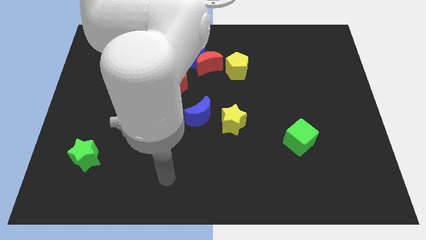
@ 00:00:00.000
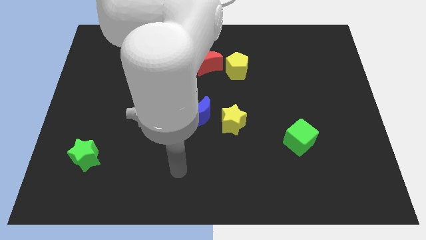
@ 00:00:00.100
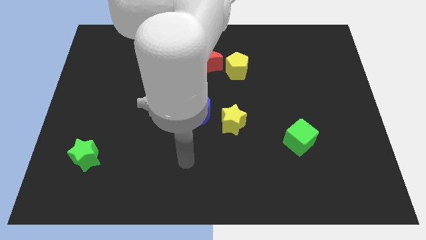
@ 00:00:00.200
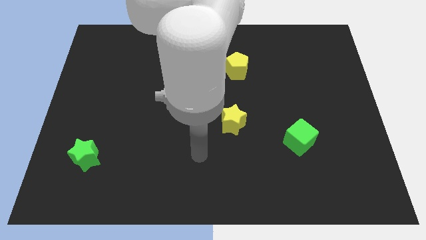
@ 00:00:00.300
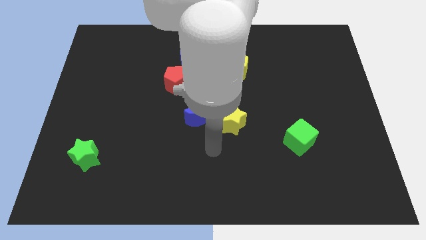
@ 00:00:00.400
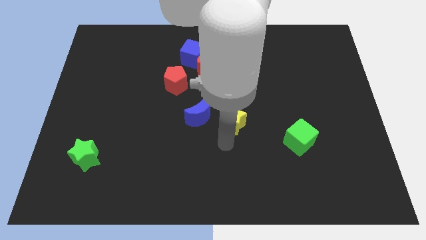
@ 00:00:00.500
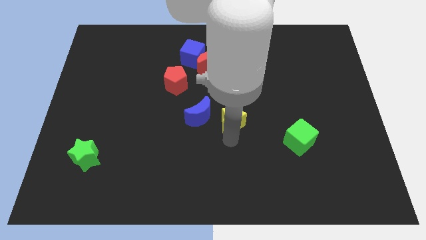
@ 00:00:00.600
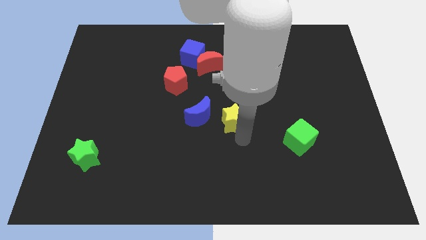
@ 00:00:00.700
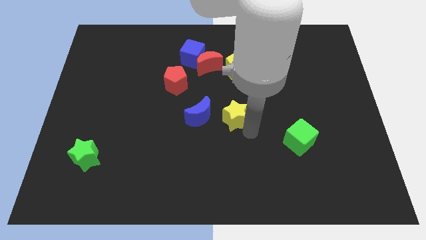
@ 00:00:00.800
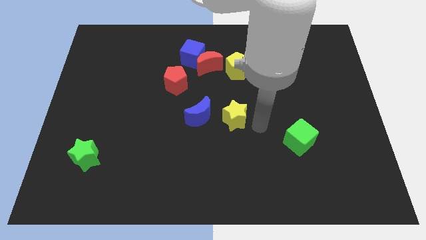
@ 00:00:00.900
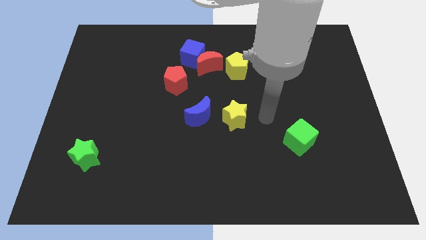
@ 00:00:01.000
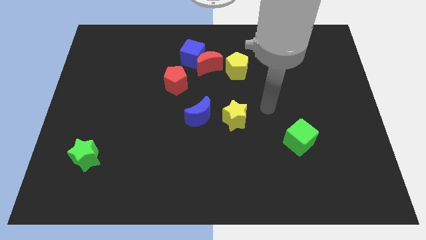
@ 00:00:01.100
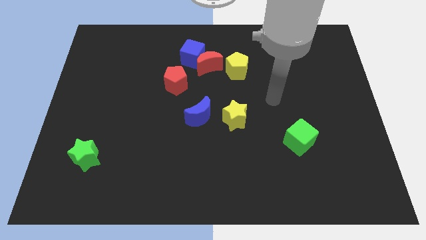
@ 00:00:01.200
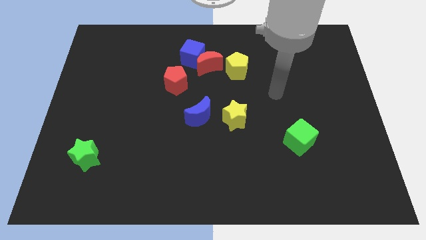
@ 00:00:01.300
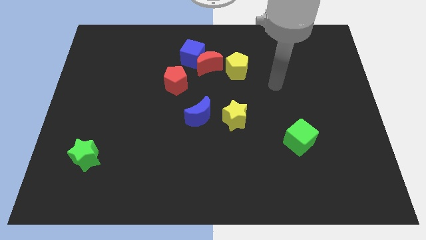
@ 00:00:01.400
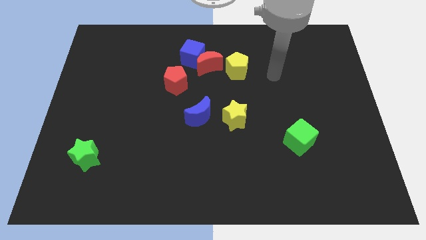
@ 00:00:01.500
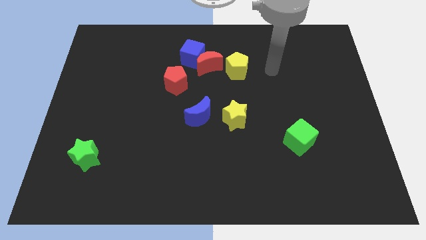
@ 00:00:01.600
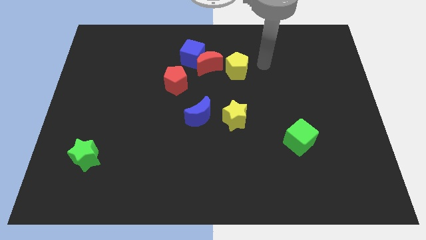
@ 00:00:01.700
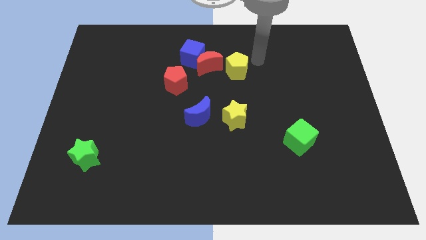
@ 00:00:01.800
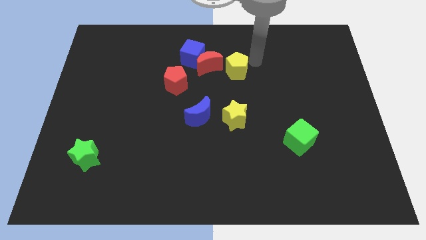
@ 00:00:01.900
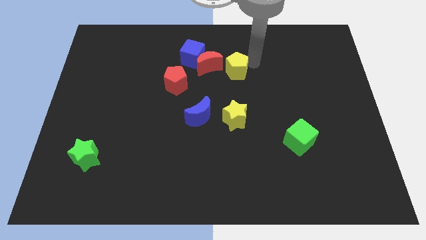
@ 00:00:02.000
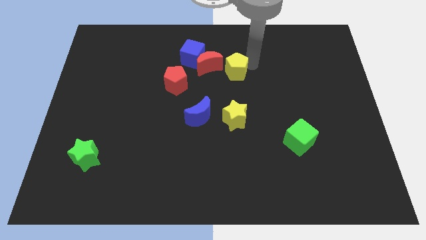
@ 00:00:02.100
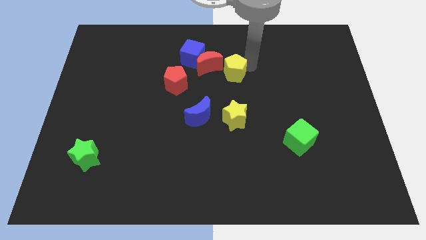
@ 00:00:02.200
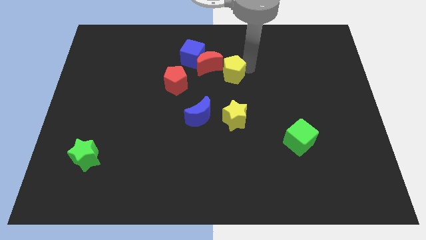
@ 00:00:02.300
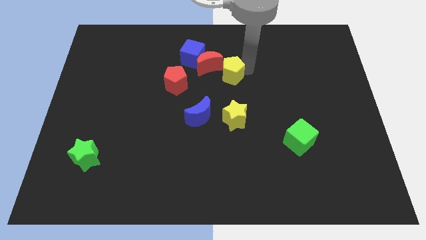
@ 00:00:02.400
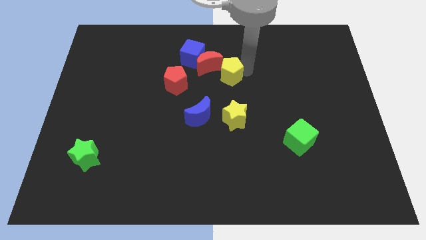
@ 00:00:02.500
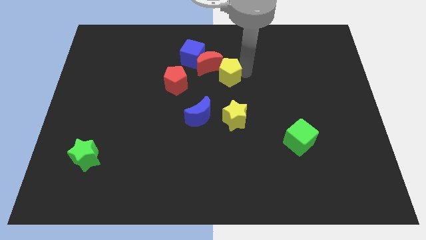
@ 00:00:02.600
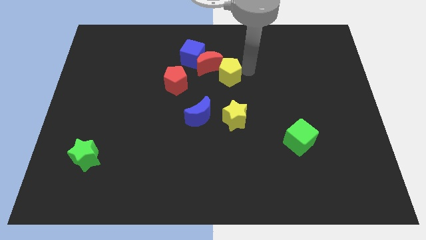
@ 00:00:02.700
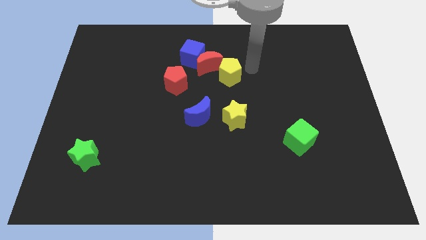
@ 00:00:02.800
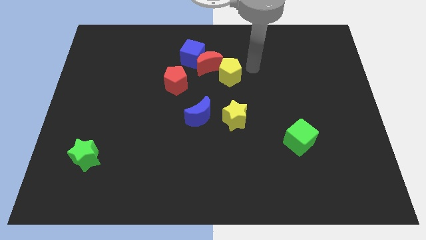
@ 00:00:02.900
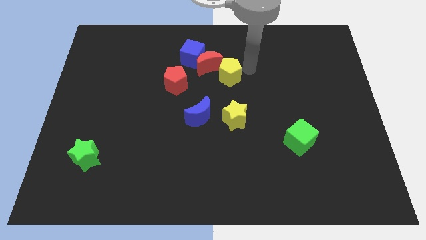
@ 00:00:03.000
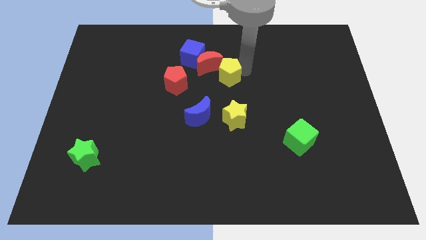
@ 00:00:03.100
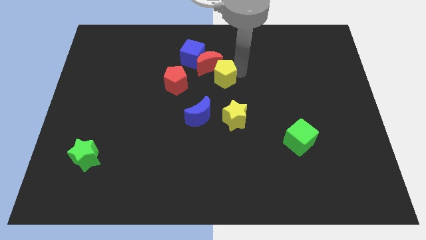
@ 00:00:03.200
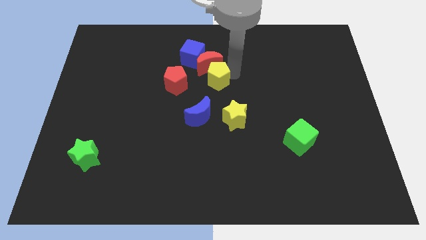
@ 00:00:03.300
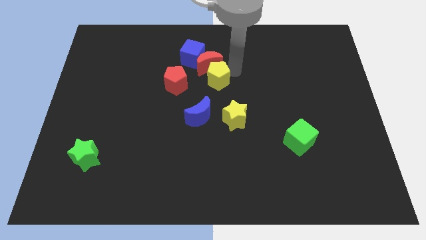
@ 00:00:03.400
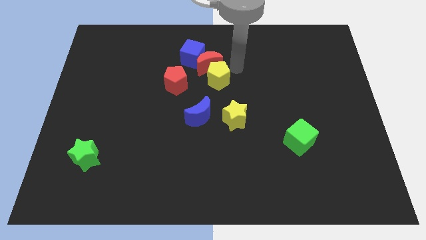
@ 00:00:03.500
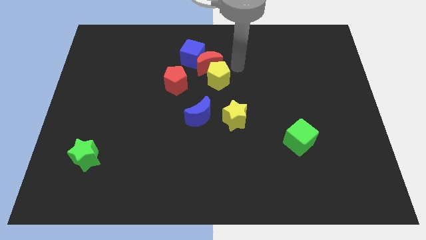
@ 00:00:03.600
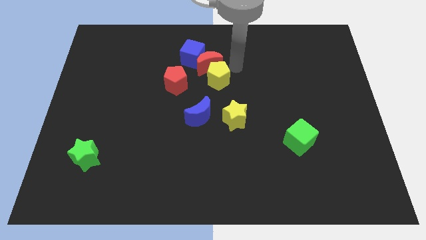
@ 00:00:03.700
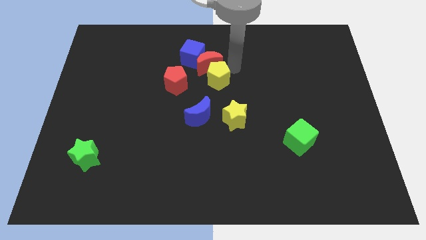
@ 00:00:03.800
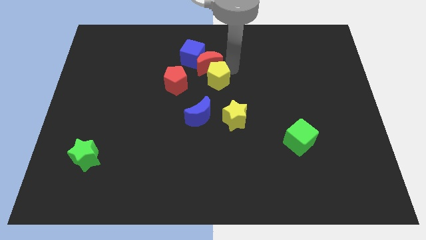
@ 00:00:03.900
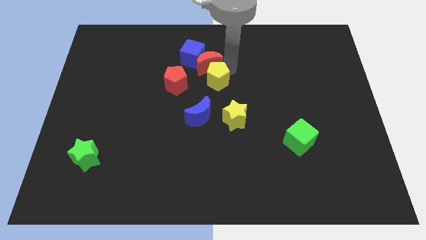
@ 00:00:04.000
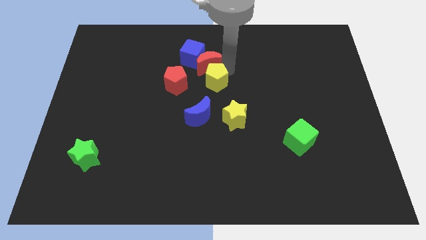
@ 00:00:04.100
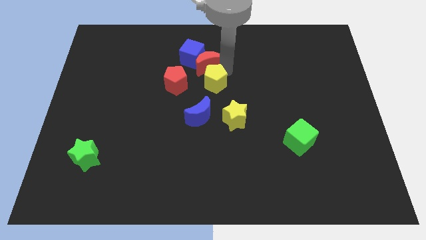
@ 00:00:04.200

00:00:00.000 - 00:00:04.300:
slightly slide the yellow pentagon downwards and then left

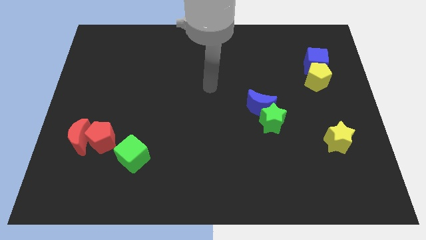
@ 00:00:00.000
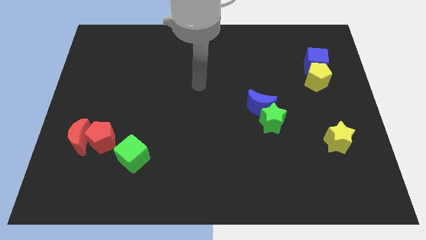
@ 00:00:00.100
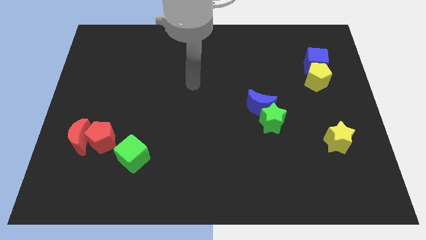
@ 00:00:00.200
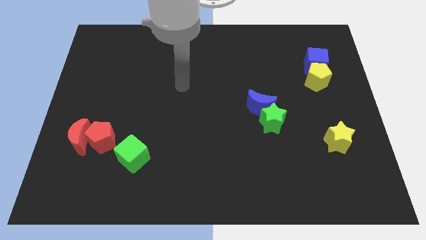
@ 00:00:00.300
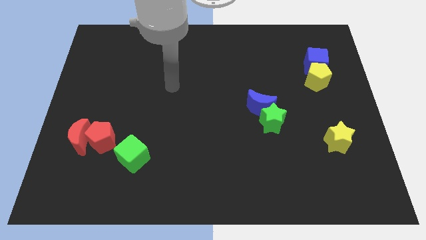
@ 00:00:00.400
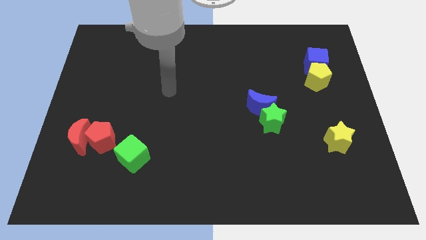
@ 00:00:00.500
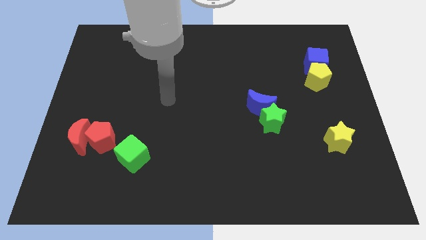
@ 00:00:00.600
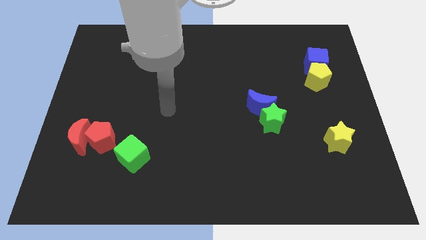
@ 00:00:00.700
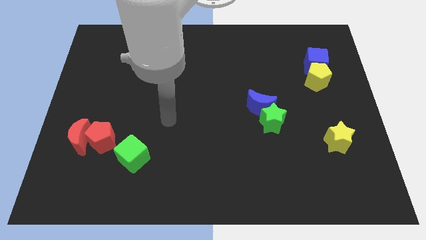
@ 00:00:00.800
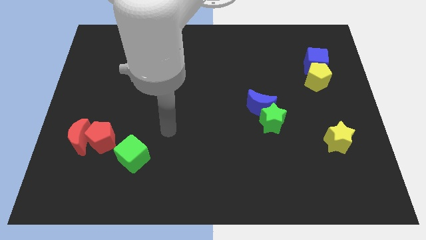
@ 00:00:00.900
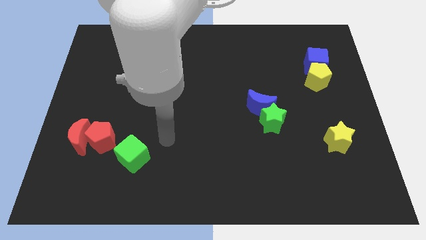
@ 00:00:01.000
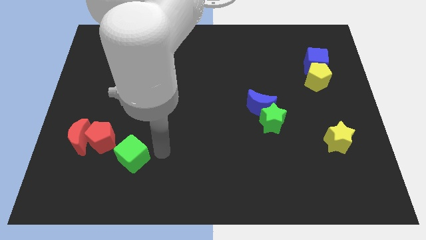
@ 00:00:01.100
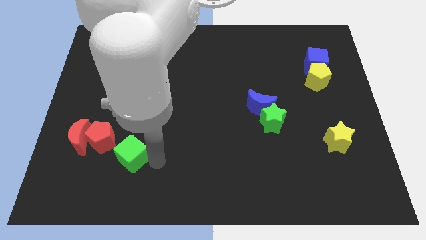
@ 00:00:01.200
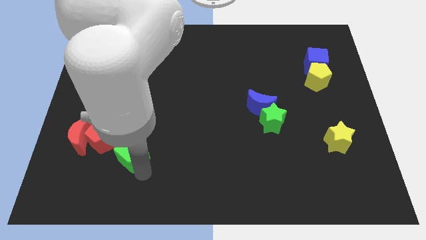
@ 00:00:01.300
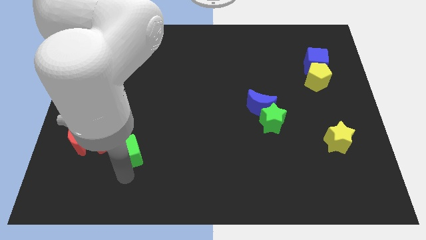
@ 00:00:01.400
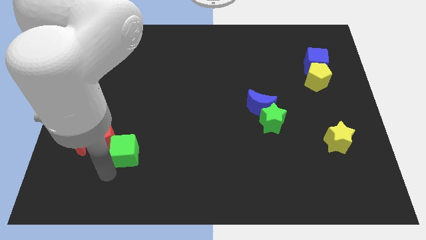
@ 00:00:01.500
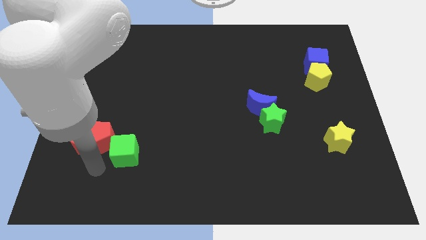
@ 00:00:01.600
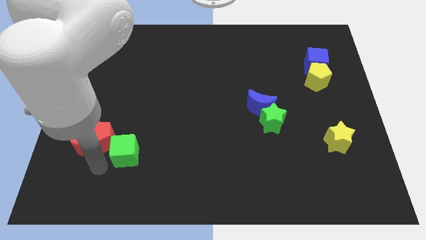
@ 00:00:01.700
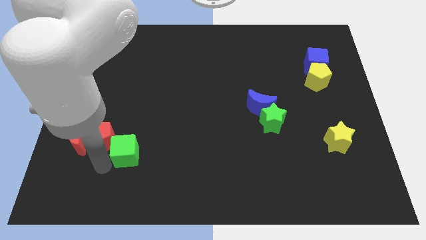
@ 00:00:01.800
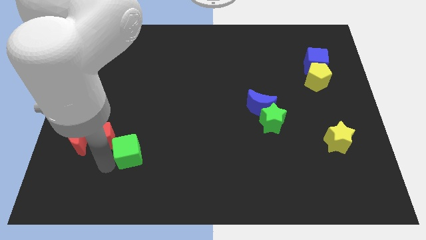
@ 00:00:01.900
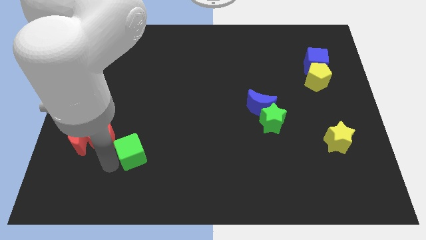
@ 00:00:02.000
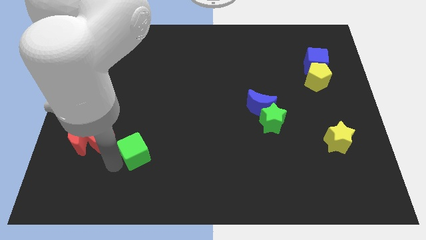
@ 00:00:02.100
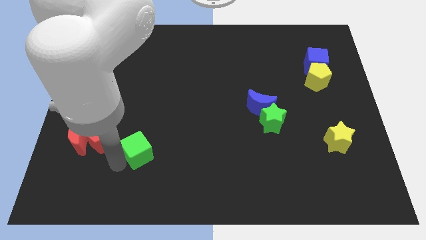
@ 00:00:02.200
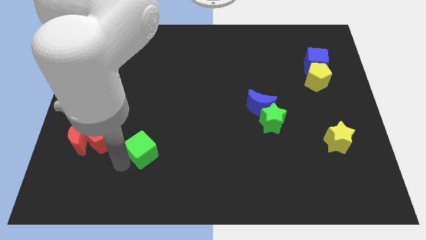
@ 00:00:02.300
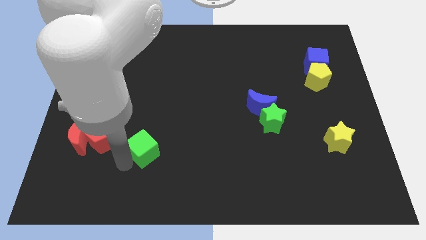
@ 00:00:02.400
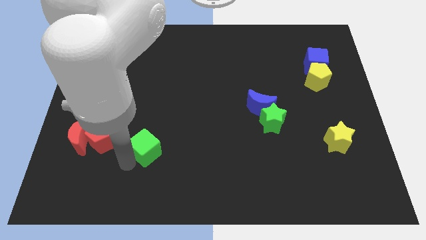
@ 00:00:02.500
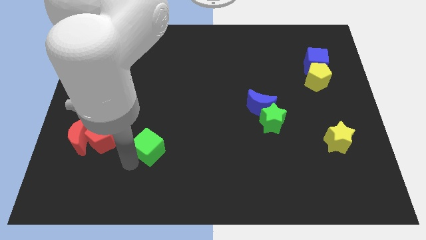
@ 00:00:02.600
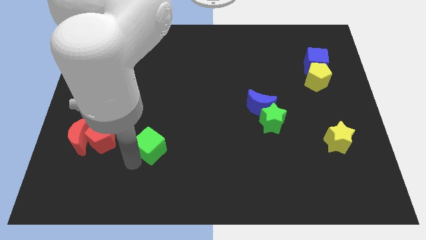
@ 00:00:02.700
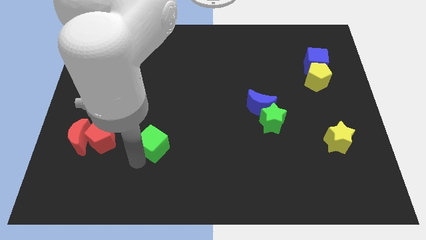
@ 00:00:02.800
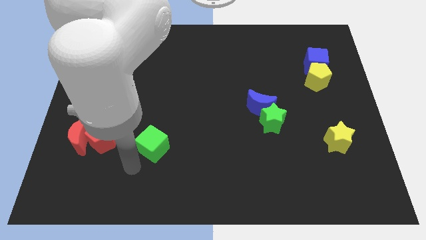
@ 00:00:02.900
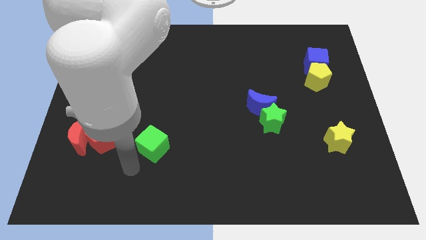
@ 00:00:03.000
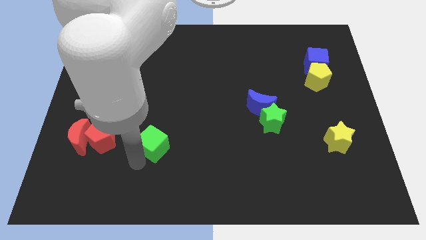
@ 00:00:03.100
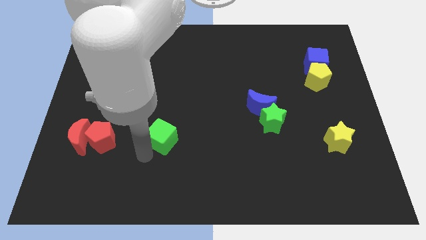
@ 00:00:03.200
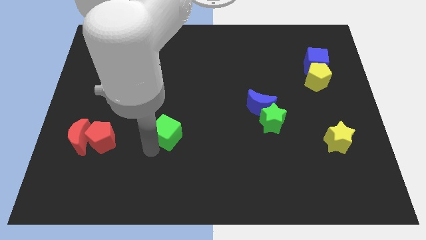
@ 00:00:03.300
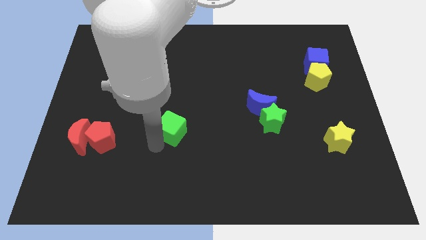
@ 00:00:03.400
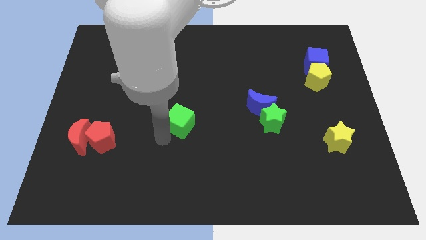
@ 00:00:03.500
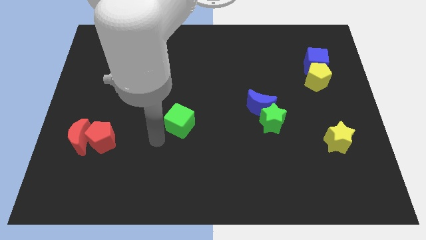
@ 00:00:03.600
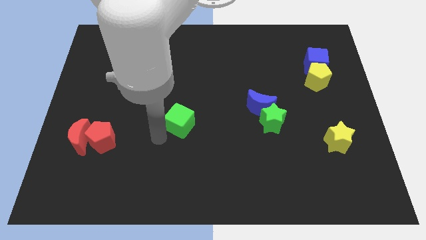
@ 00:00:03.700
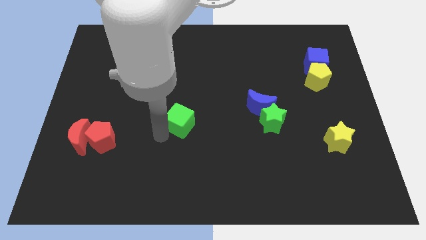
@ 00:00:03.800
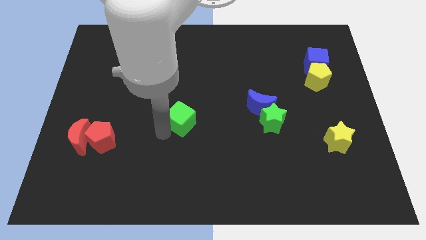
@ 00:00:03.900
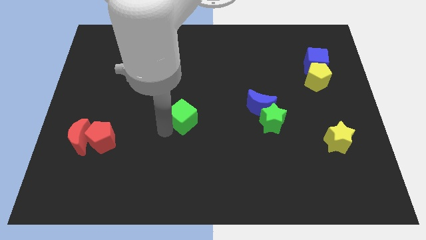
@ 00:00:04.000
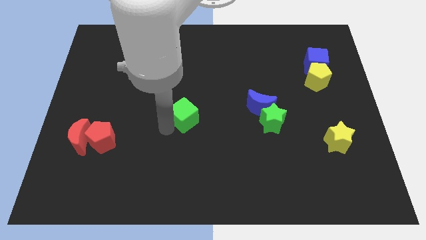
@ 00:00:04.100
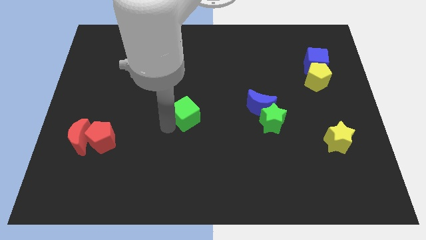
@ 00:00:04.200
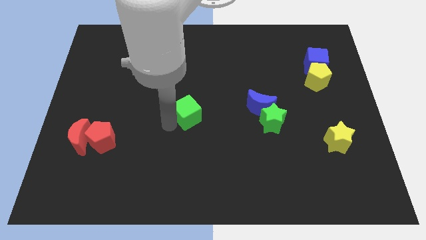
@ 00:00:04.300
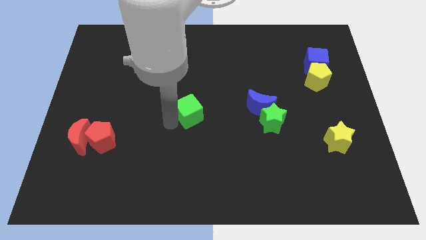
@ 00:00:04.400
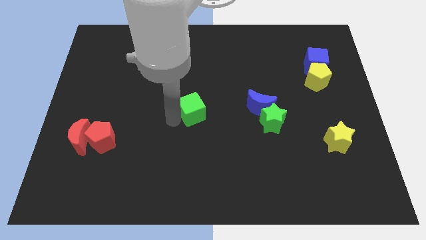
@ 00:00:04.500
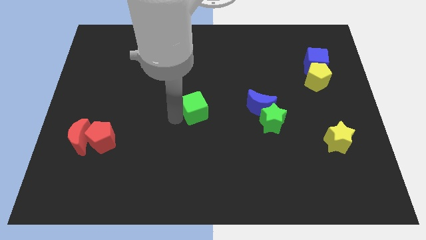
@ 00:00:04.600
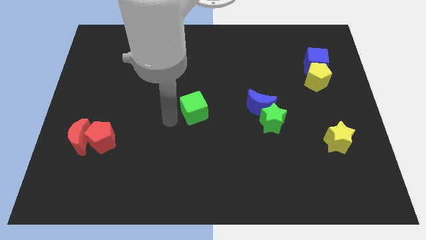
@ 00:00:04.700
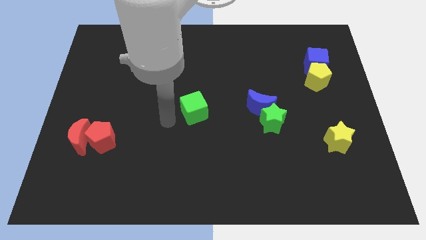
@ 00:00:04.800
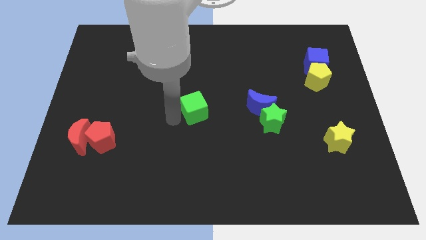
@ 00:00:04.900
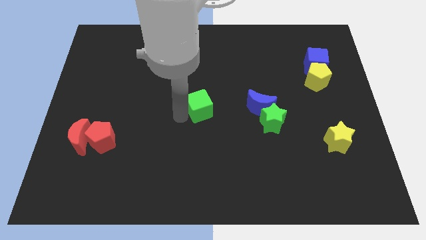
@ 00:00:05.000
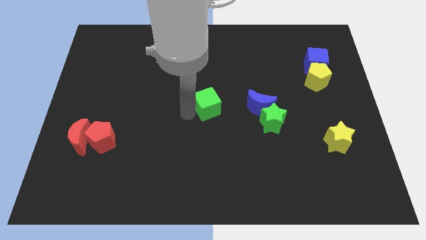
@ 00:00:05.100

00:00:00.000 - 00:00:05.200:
move the green cube upwards and right
